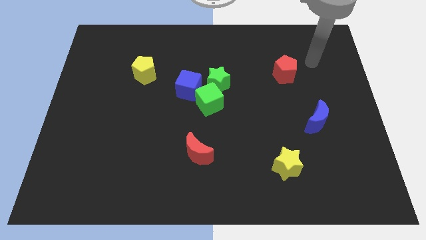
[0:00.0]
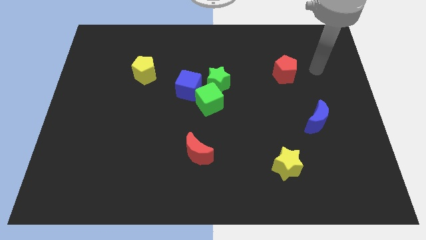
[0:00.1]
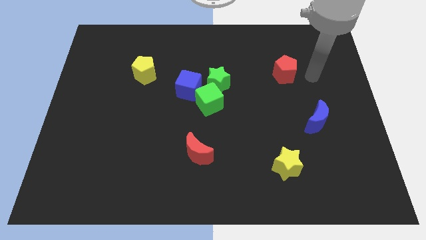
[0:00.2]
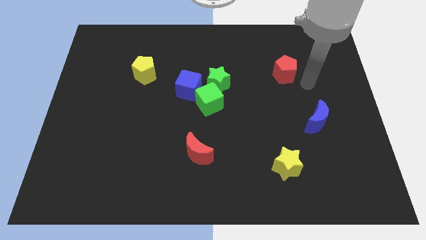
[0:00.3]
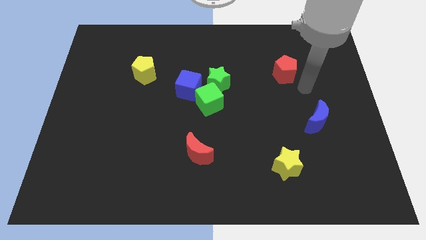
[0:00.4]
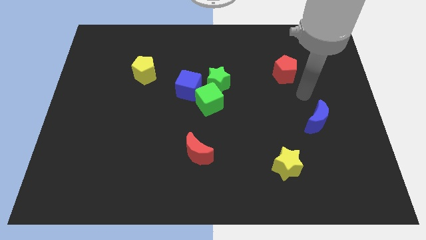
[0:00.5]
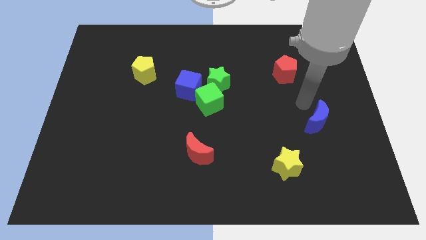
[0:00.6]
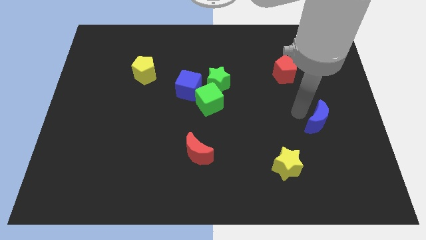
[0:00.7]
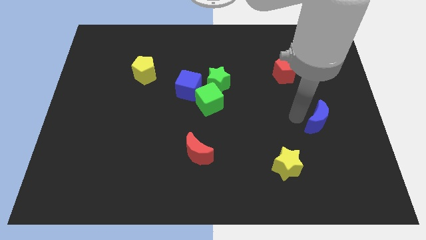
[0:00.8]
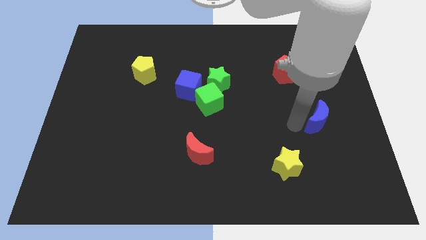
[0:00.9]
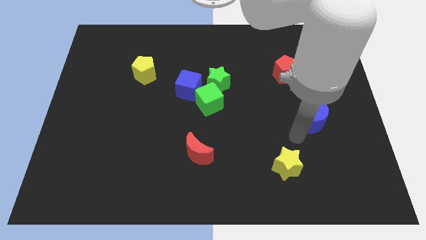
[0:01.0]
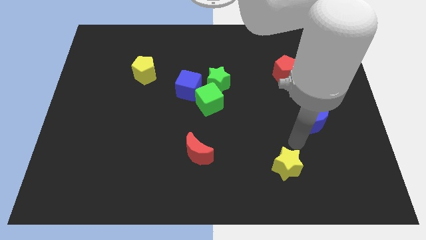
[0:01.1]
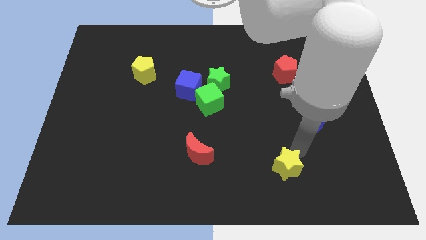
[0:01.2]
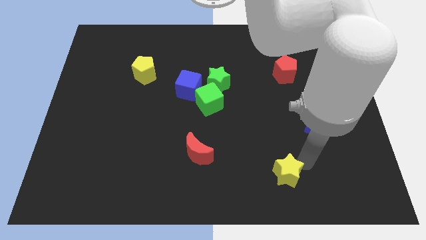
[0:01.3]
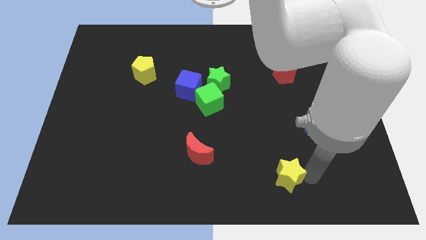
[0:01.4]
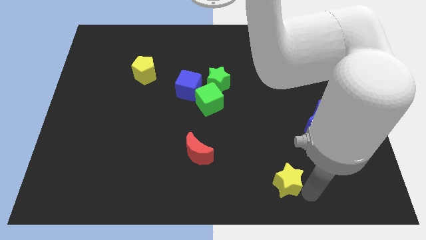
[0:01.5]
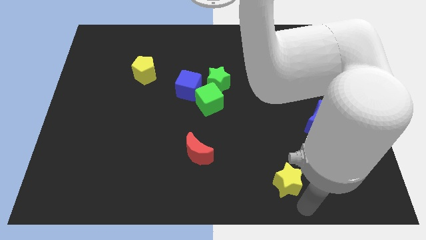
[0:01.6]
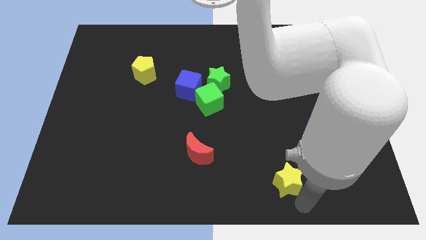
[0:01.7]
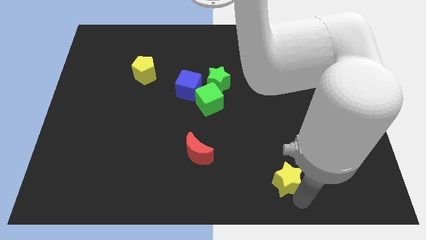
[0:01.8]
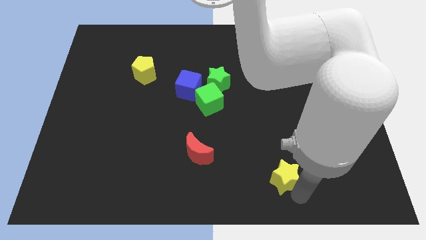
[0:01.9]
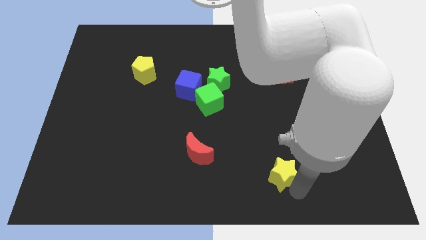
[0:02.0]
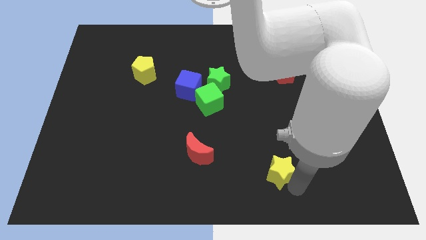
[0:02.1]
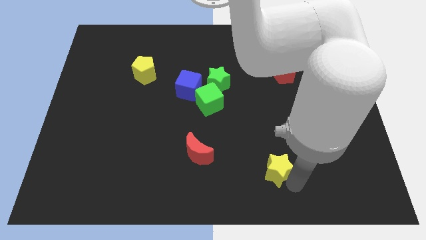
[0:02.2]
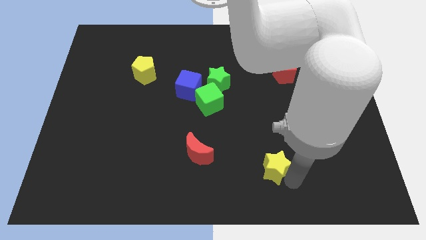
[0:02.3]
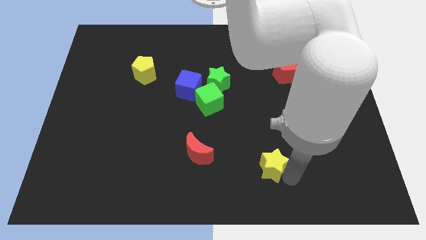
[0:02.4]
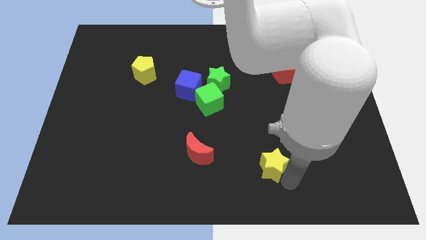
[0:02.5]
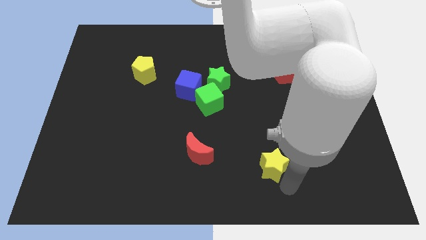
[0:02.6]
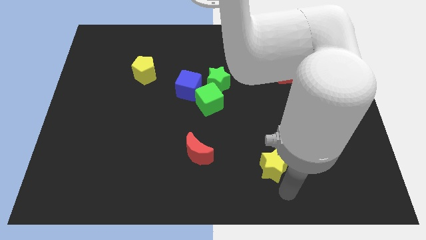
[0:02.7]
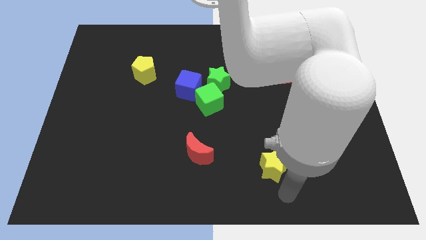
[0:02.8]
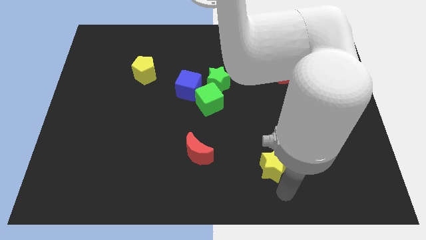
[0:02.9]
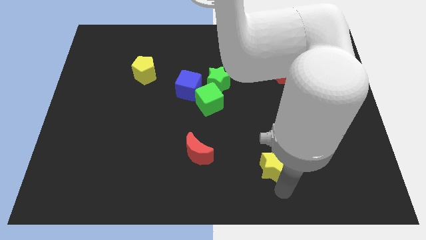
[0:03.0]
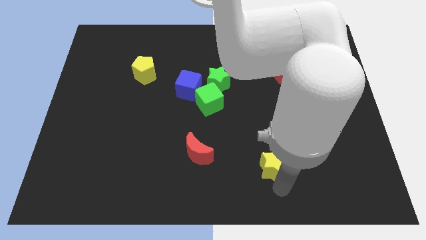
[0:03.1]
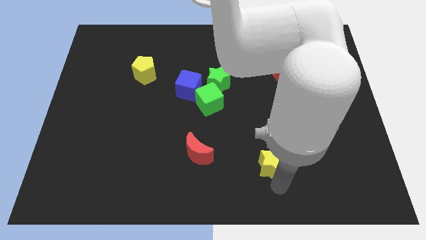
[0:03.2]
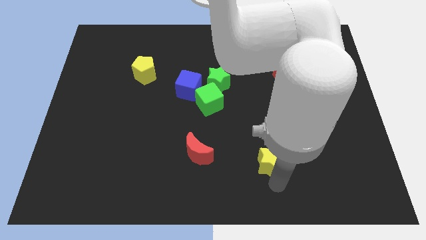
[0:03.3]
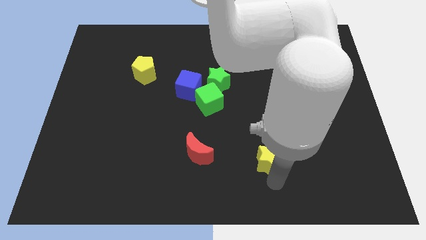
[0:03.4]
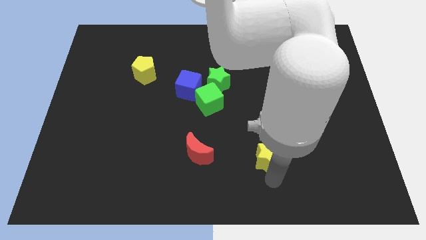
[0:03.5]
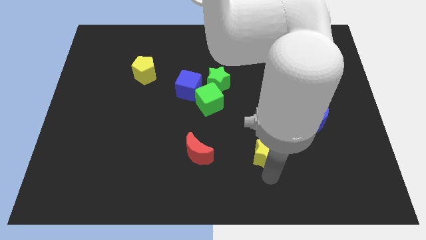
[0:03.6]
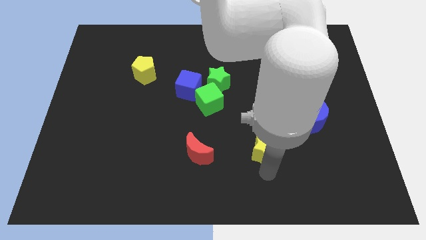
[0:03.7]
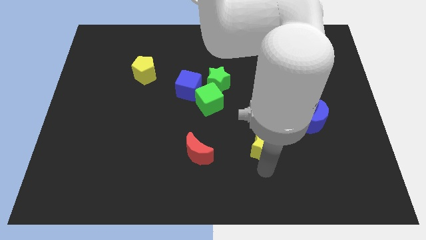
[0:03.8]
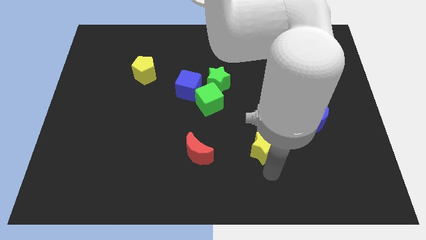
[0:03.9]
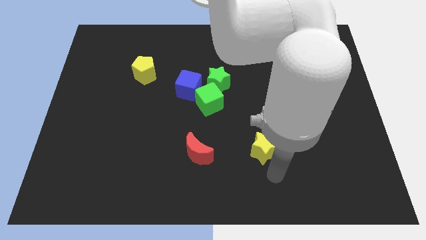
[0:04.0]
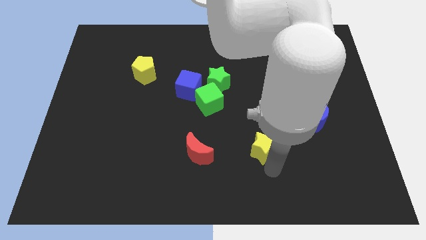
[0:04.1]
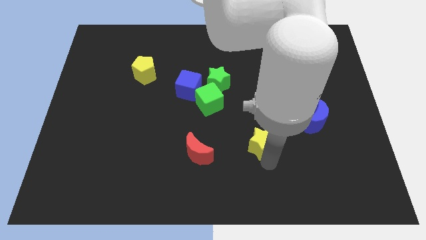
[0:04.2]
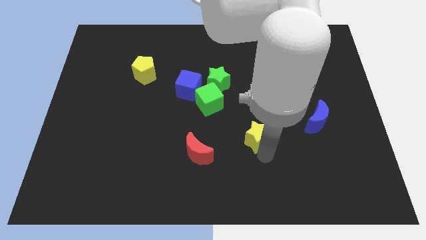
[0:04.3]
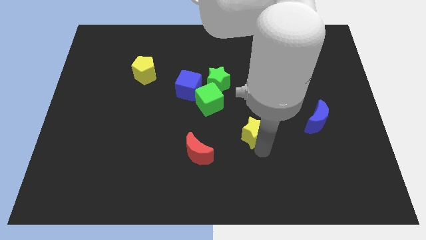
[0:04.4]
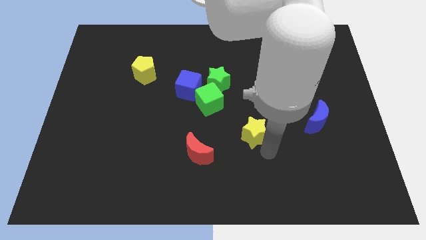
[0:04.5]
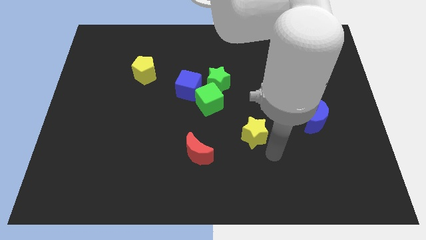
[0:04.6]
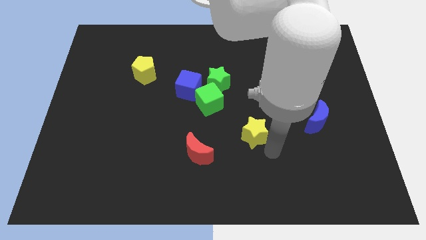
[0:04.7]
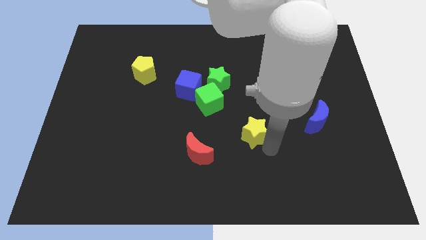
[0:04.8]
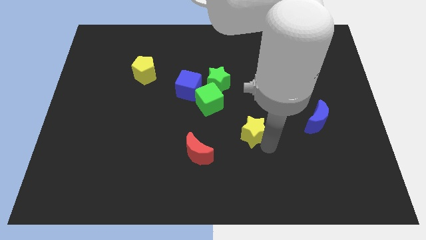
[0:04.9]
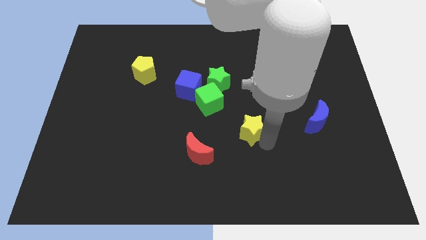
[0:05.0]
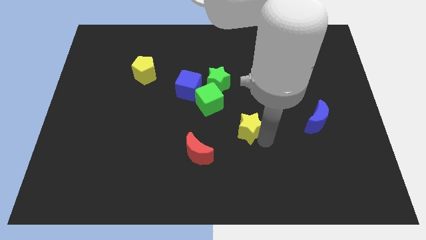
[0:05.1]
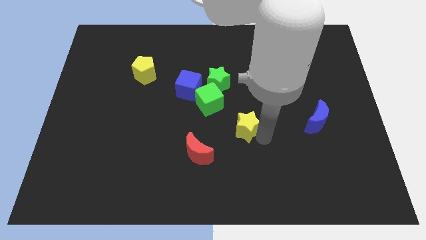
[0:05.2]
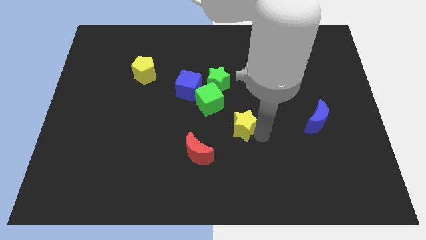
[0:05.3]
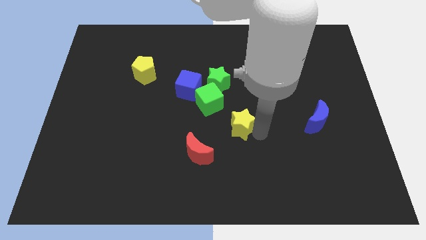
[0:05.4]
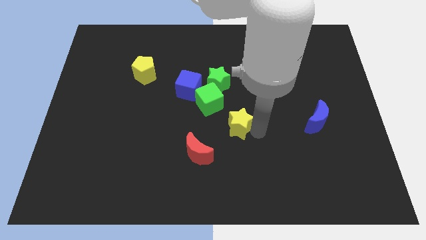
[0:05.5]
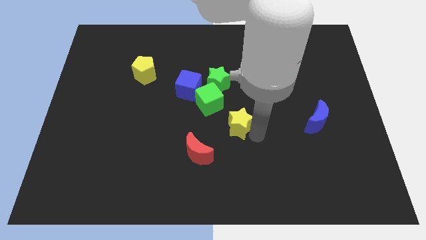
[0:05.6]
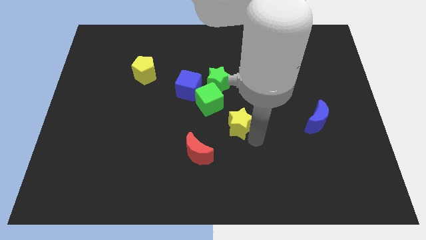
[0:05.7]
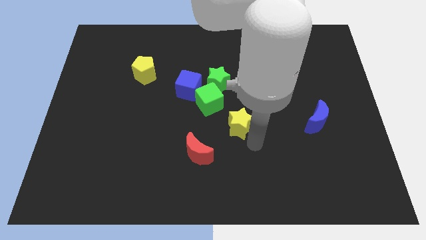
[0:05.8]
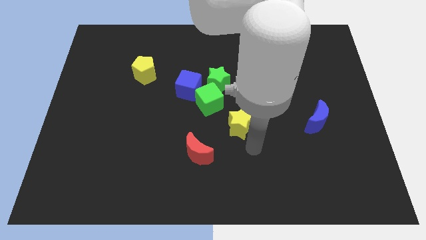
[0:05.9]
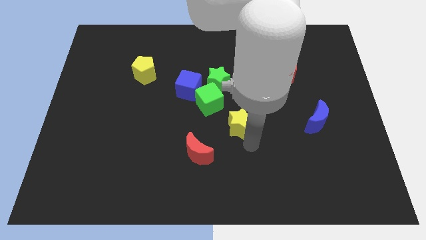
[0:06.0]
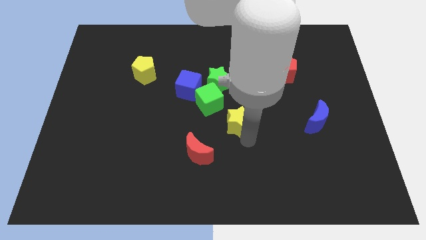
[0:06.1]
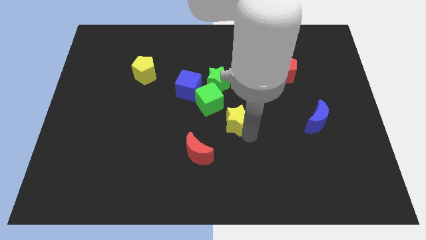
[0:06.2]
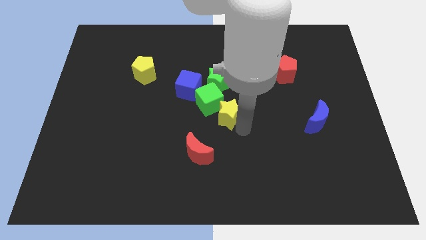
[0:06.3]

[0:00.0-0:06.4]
move the yellow star to the green cube
